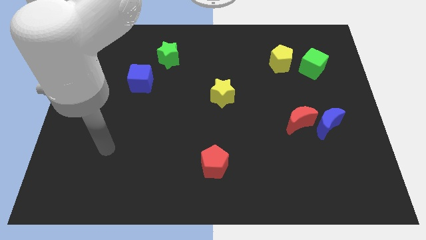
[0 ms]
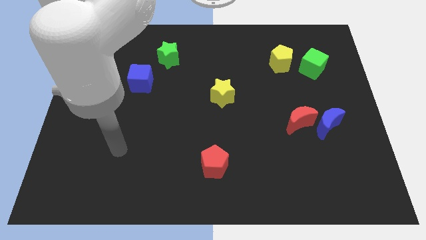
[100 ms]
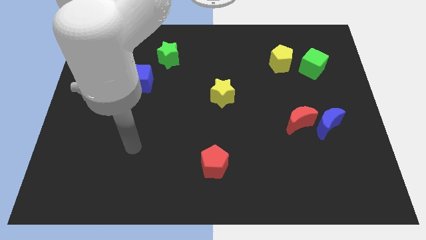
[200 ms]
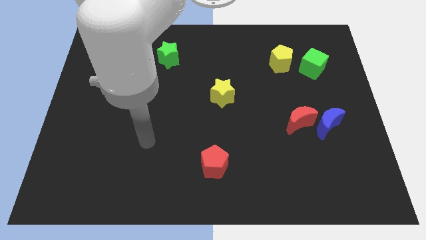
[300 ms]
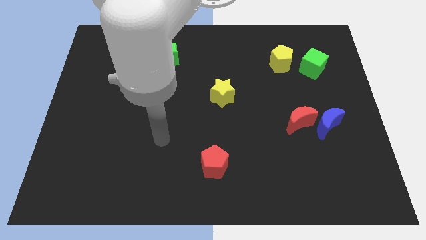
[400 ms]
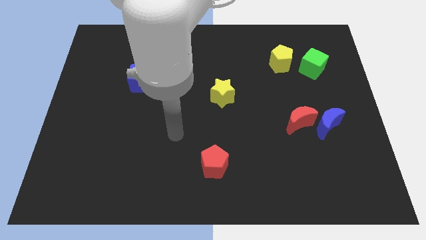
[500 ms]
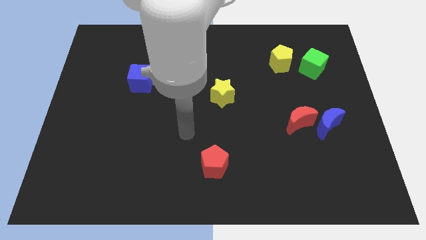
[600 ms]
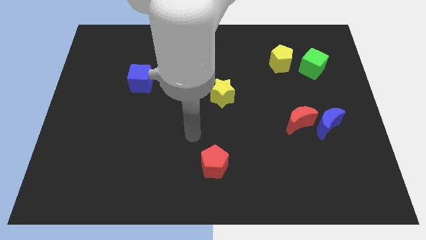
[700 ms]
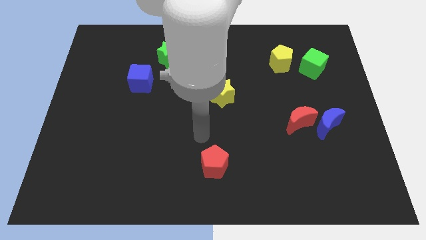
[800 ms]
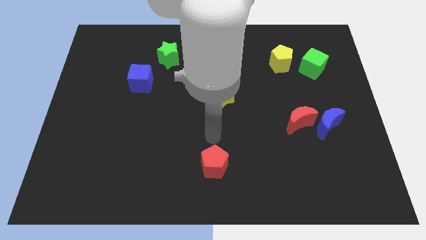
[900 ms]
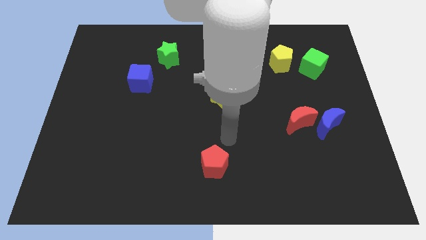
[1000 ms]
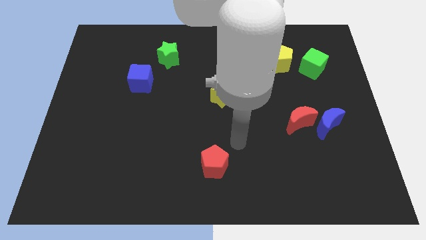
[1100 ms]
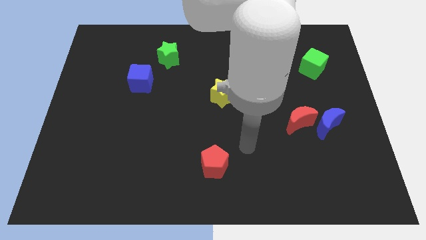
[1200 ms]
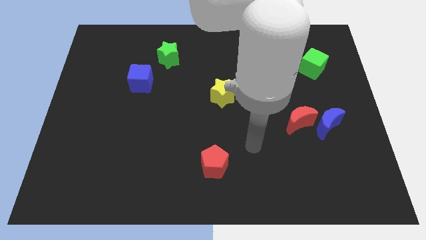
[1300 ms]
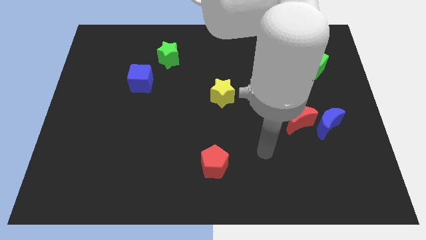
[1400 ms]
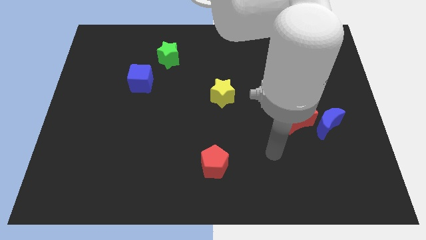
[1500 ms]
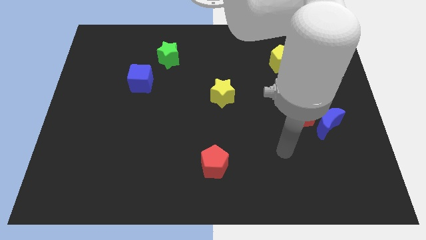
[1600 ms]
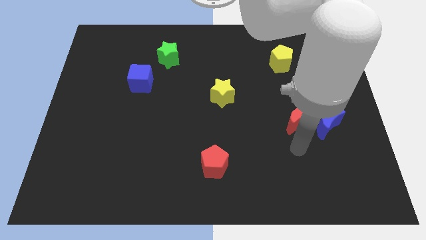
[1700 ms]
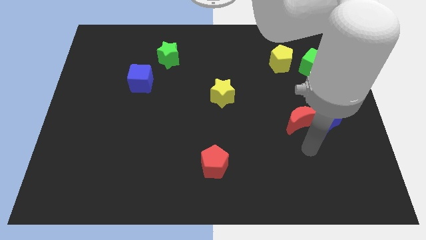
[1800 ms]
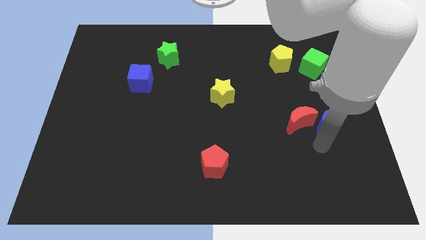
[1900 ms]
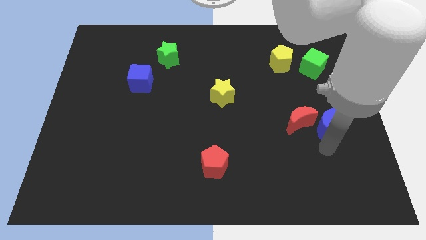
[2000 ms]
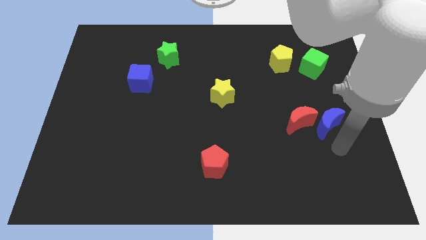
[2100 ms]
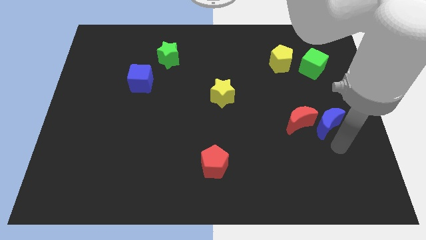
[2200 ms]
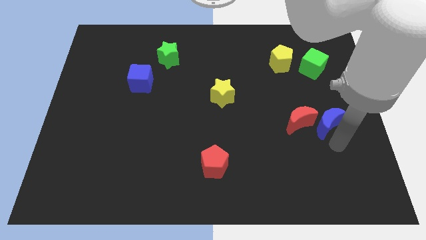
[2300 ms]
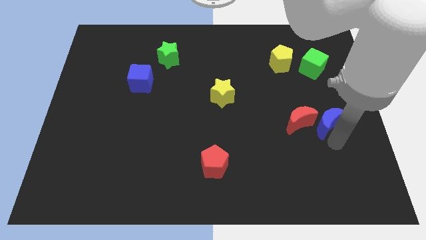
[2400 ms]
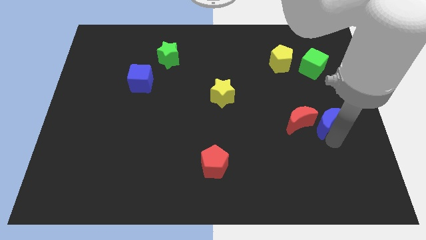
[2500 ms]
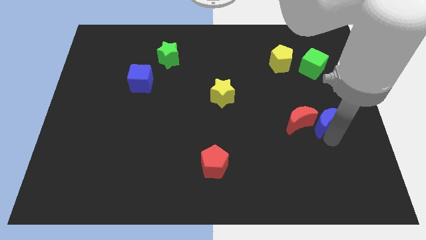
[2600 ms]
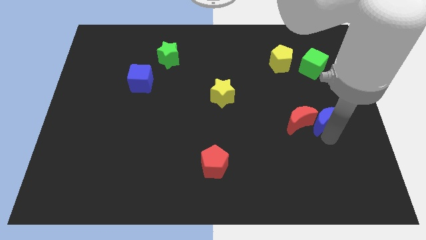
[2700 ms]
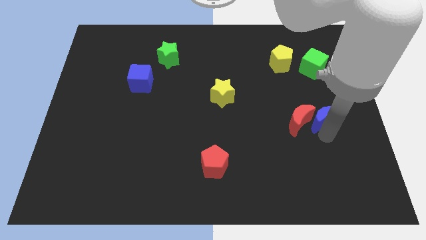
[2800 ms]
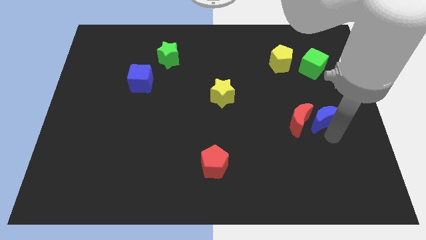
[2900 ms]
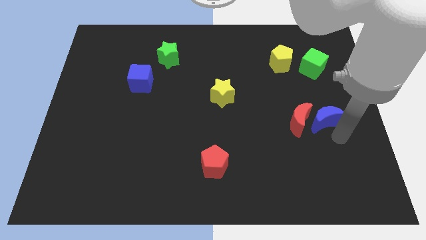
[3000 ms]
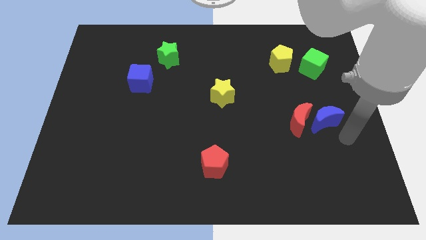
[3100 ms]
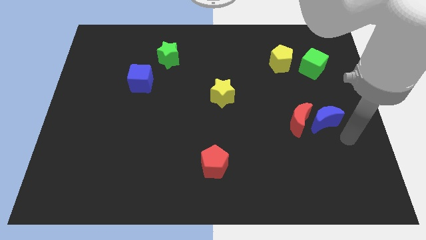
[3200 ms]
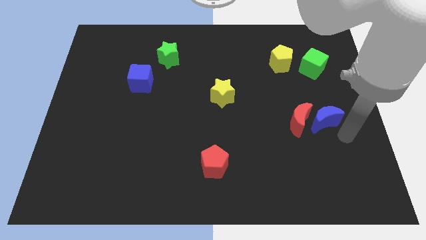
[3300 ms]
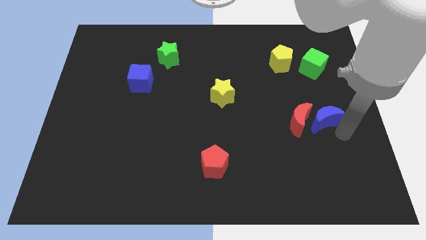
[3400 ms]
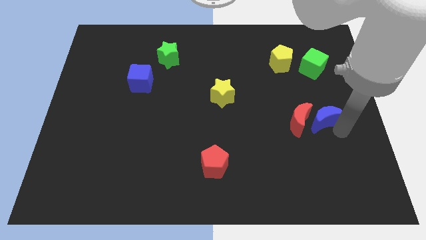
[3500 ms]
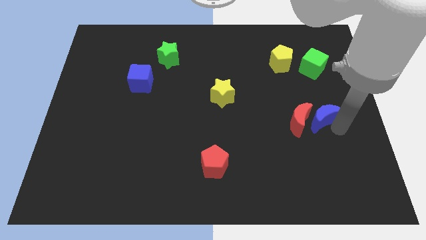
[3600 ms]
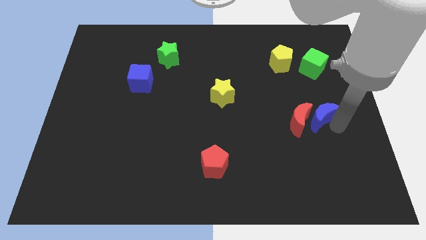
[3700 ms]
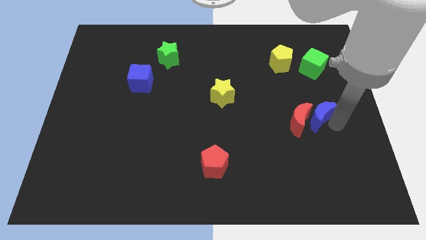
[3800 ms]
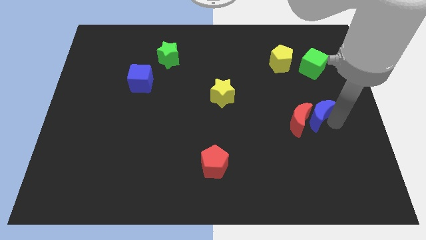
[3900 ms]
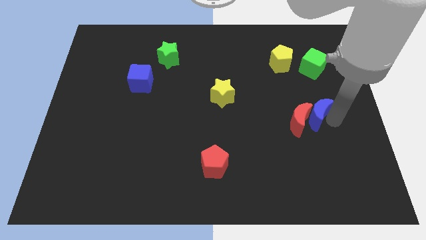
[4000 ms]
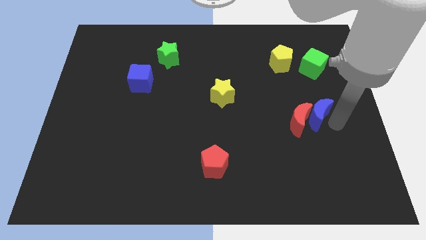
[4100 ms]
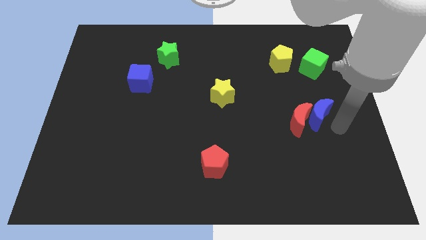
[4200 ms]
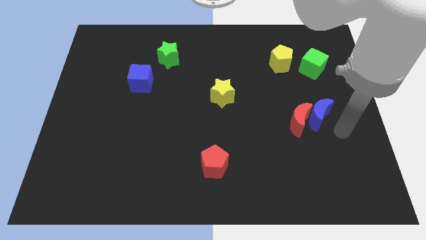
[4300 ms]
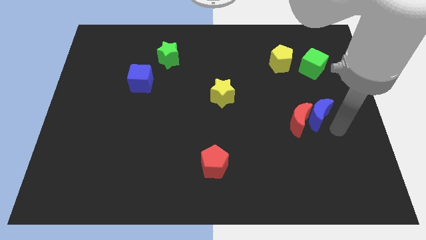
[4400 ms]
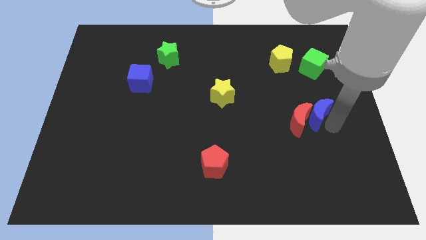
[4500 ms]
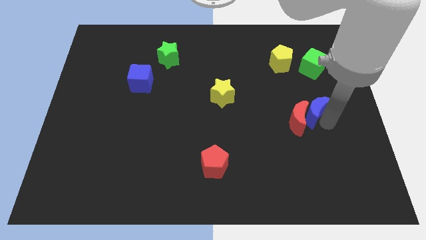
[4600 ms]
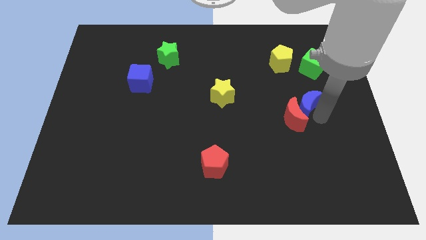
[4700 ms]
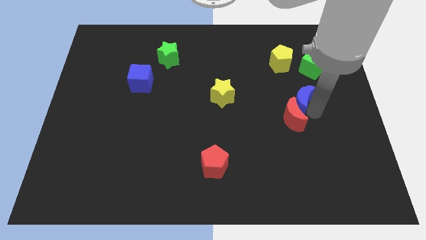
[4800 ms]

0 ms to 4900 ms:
slightly push the blue moon upwards and to the left

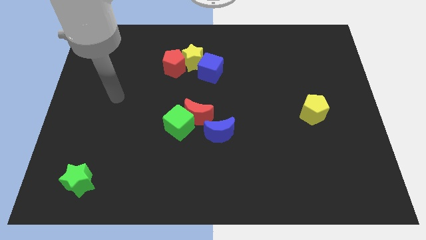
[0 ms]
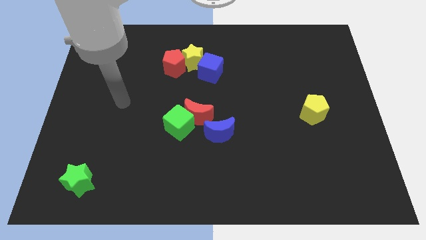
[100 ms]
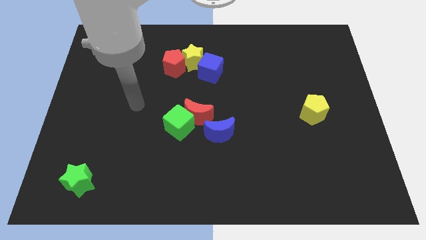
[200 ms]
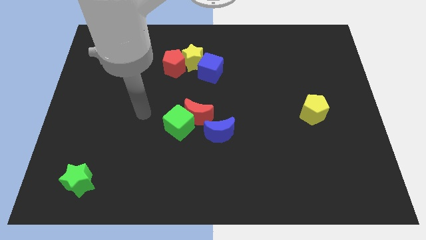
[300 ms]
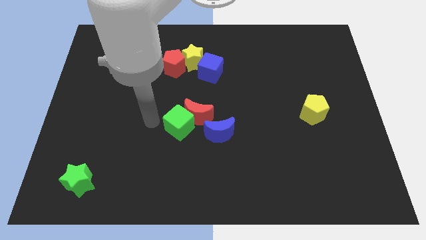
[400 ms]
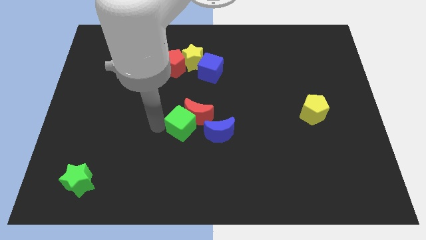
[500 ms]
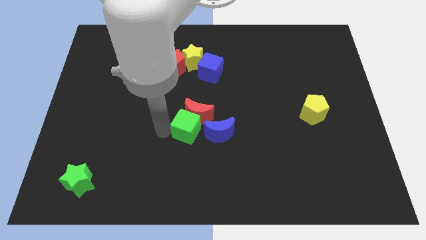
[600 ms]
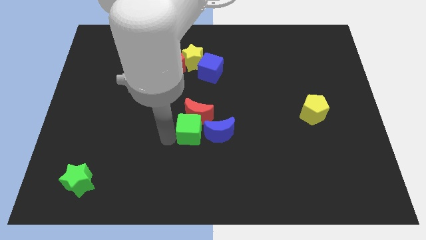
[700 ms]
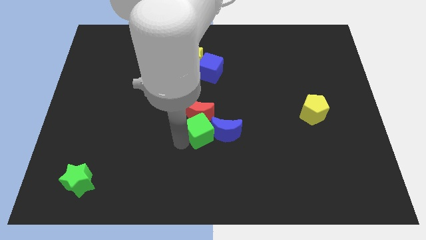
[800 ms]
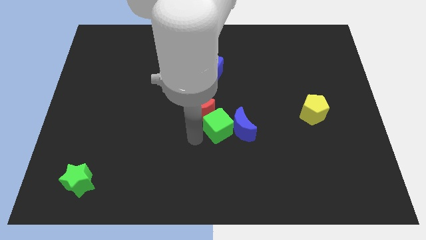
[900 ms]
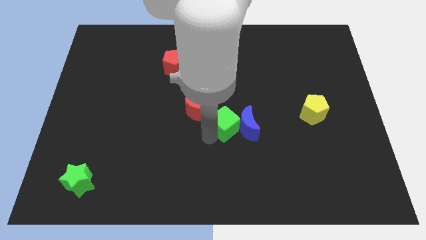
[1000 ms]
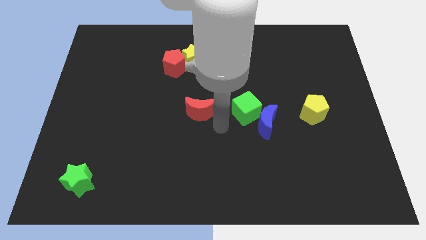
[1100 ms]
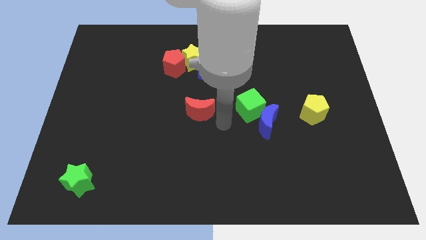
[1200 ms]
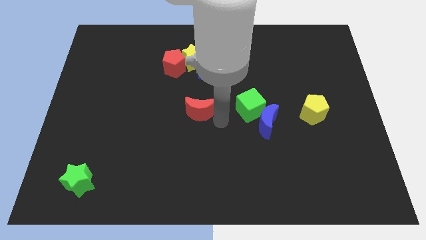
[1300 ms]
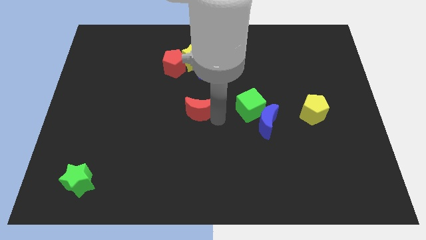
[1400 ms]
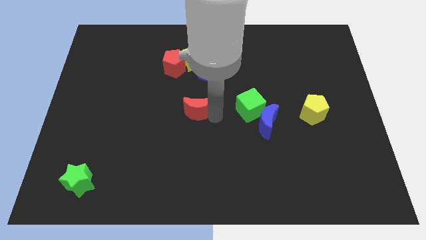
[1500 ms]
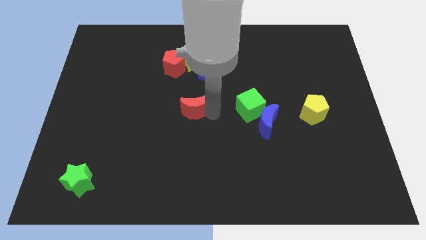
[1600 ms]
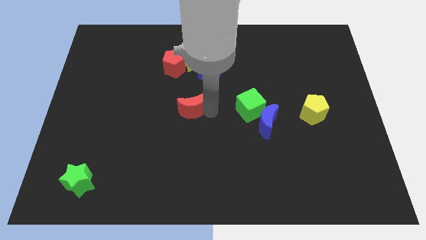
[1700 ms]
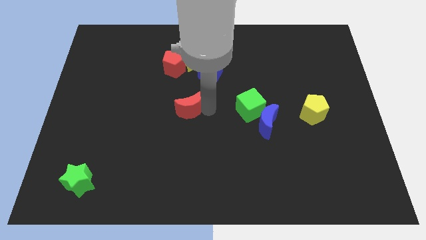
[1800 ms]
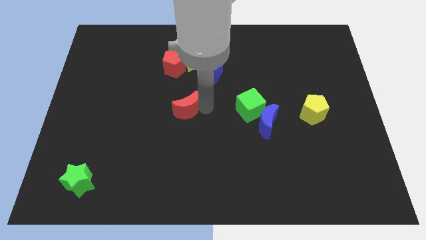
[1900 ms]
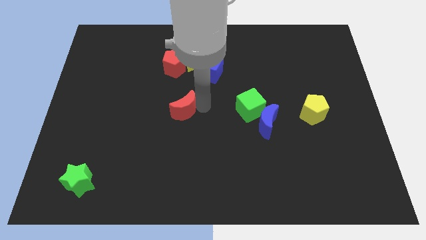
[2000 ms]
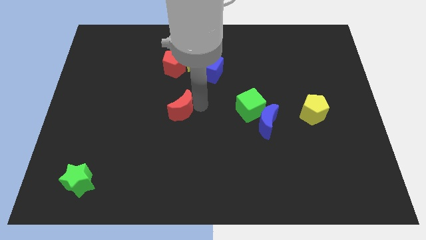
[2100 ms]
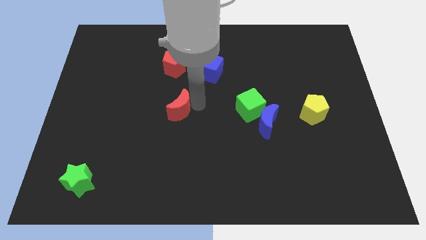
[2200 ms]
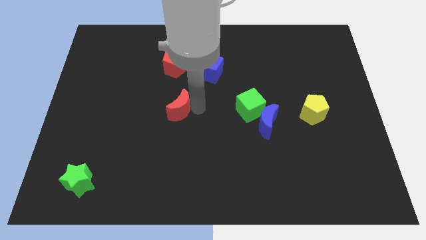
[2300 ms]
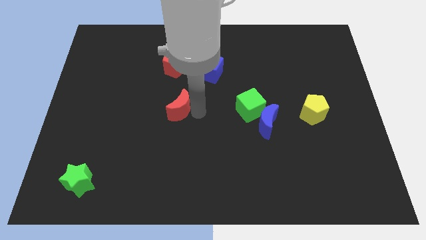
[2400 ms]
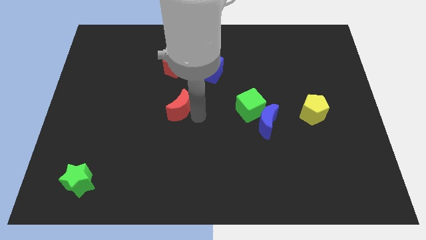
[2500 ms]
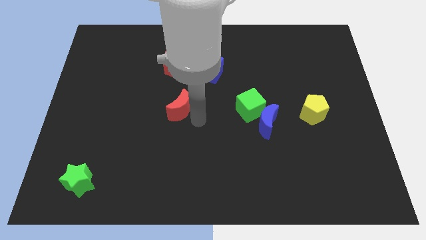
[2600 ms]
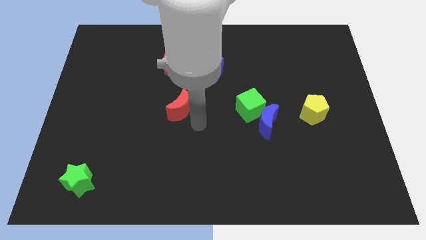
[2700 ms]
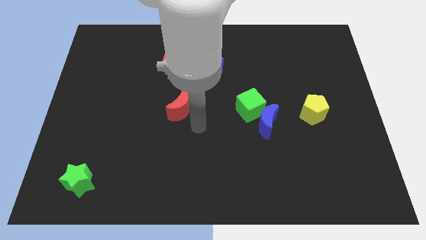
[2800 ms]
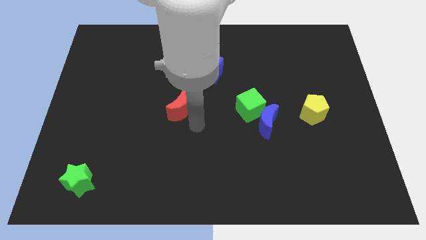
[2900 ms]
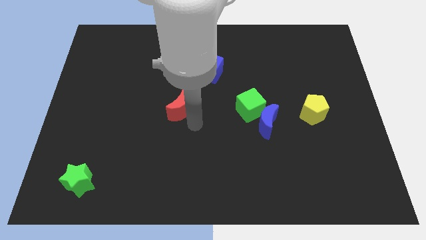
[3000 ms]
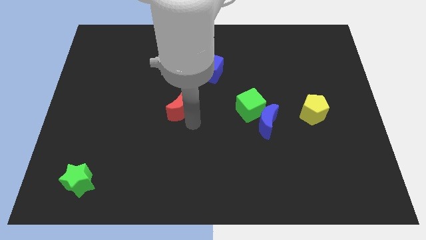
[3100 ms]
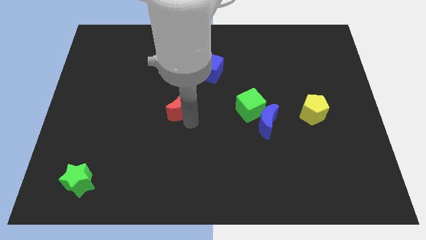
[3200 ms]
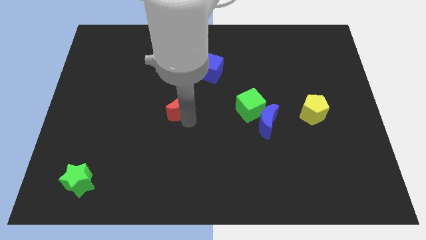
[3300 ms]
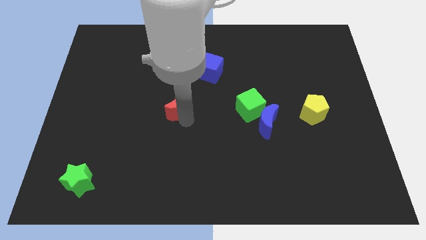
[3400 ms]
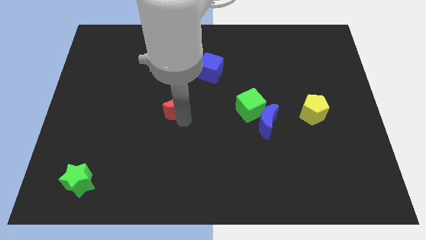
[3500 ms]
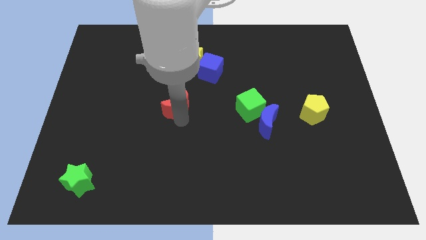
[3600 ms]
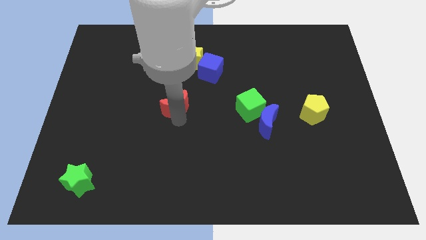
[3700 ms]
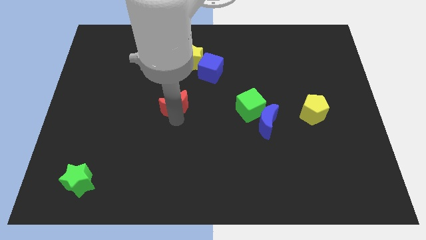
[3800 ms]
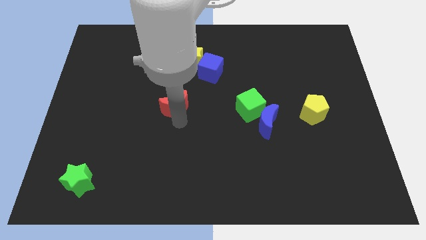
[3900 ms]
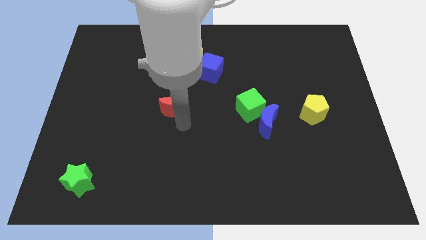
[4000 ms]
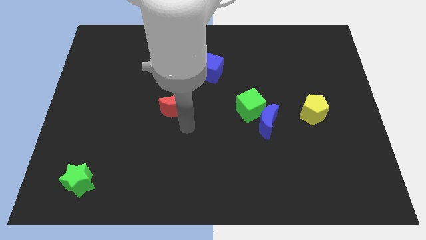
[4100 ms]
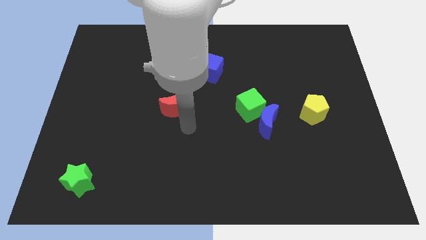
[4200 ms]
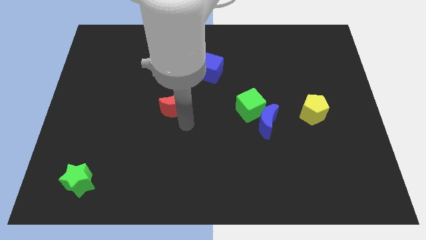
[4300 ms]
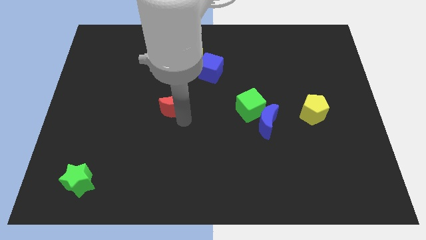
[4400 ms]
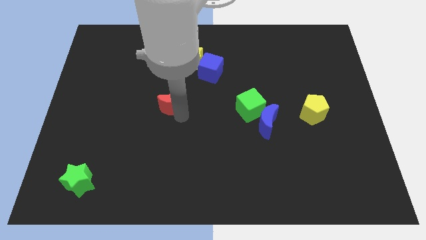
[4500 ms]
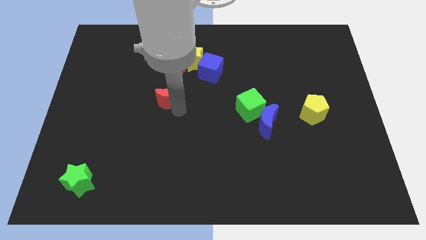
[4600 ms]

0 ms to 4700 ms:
slightly move the red moon diagonally up and to the left
